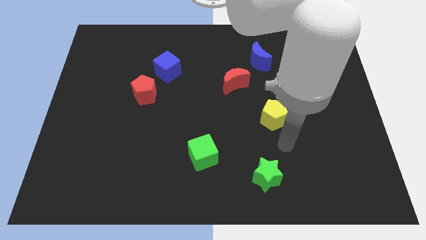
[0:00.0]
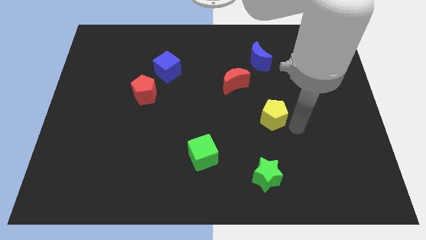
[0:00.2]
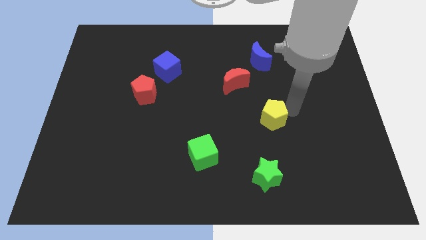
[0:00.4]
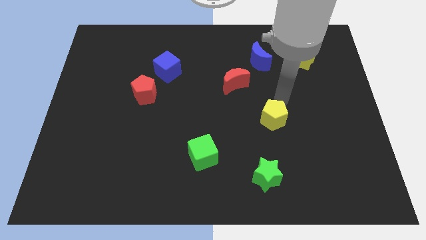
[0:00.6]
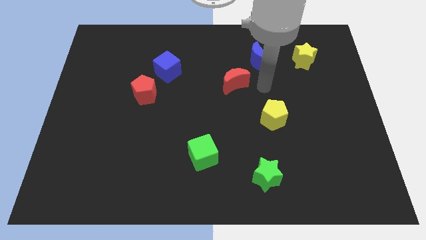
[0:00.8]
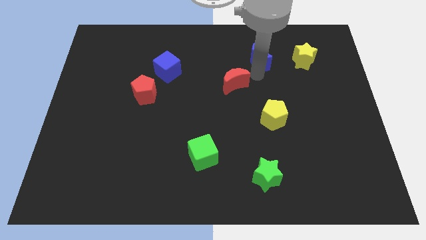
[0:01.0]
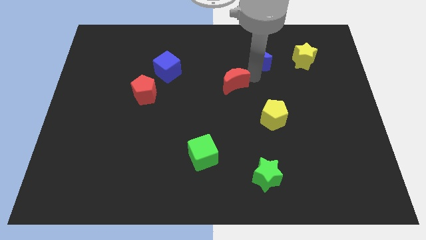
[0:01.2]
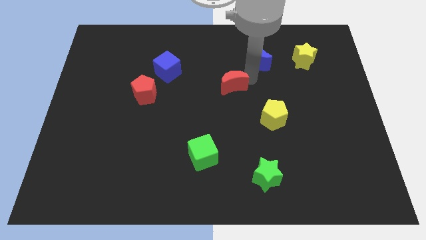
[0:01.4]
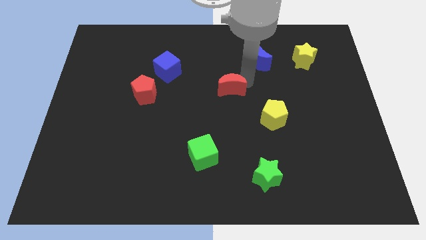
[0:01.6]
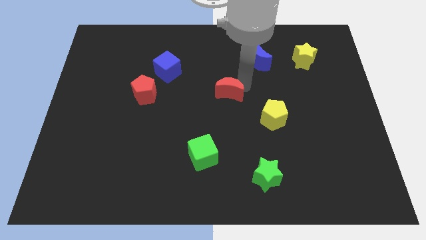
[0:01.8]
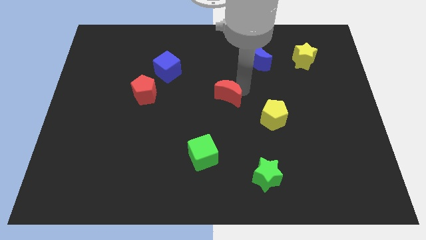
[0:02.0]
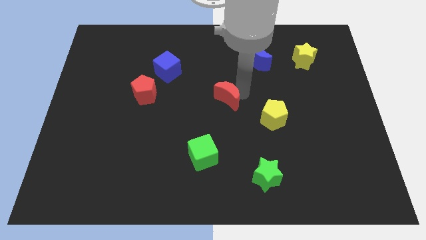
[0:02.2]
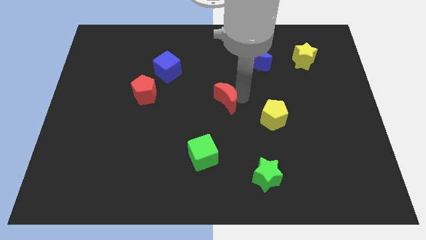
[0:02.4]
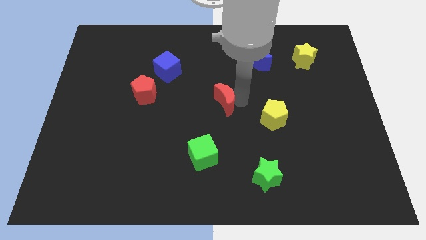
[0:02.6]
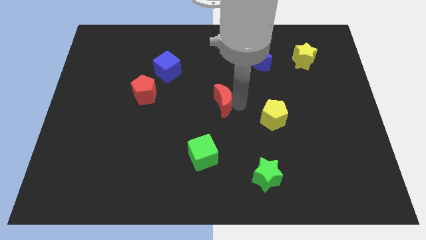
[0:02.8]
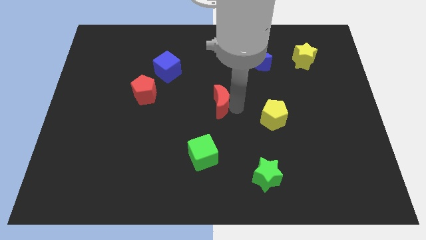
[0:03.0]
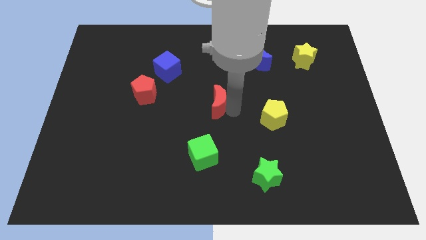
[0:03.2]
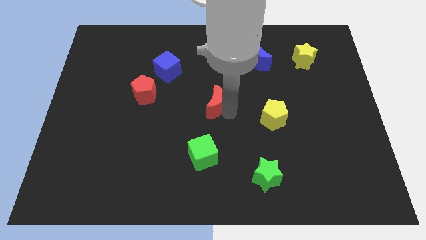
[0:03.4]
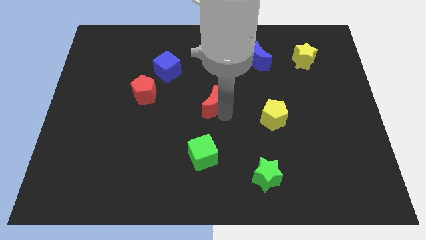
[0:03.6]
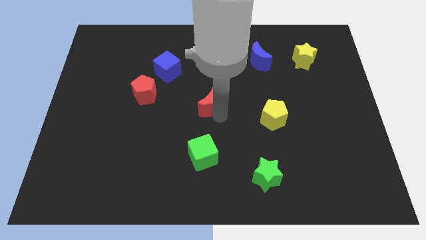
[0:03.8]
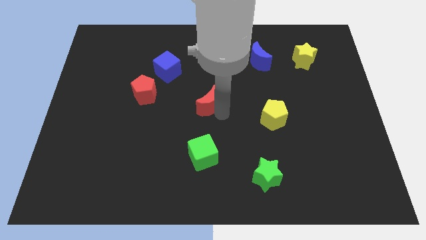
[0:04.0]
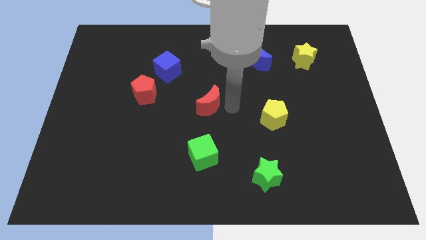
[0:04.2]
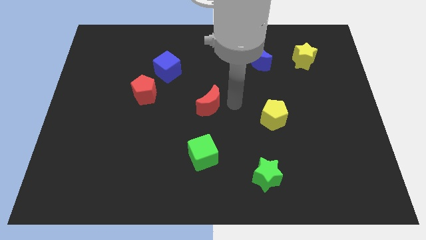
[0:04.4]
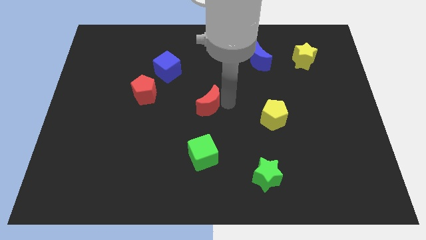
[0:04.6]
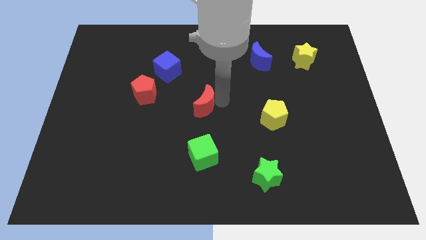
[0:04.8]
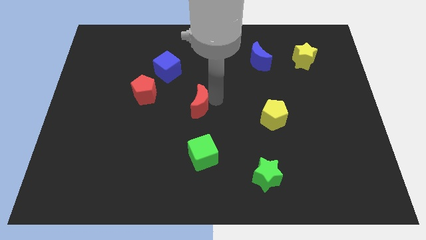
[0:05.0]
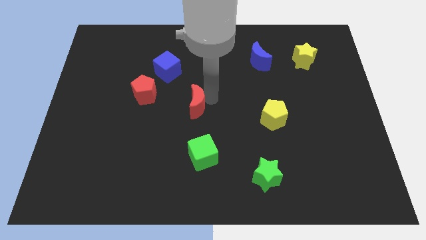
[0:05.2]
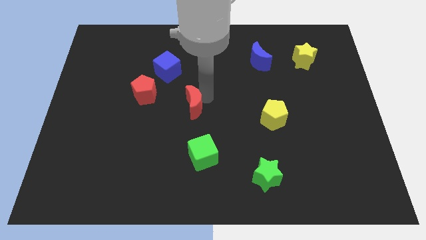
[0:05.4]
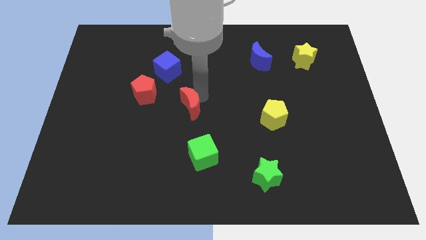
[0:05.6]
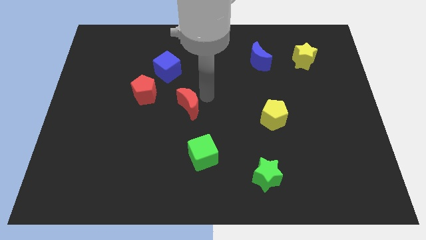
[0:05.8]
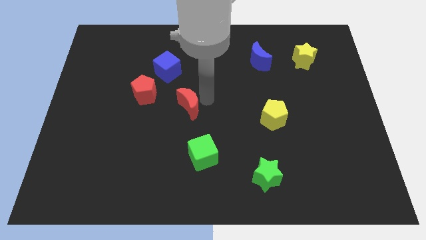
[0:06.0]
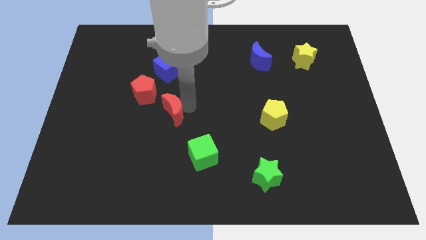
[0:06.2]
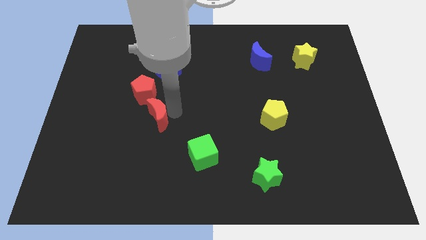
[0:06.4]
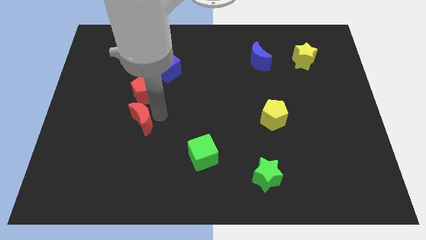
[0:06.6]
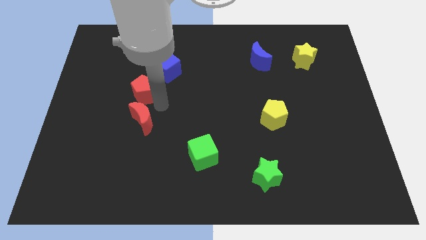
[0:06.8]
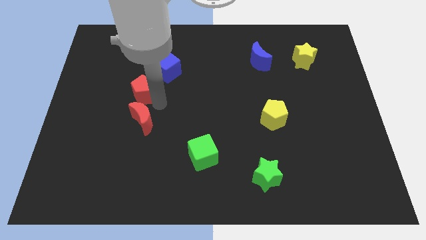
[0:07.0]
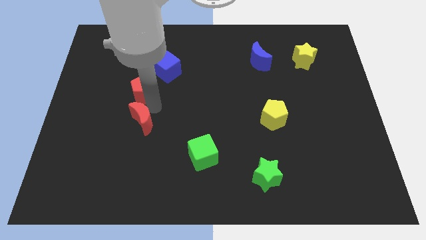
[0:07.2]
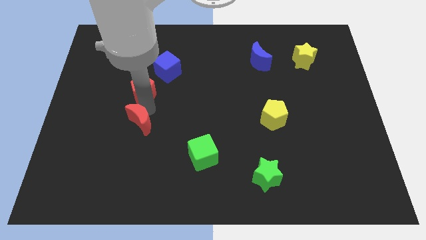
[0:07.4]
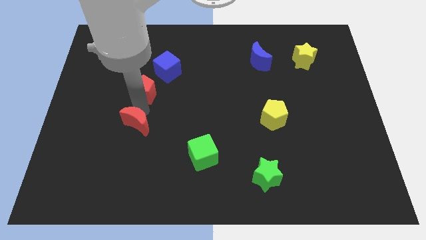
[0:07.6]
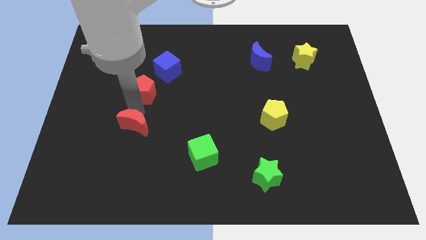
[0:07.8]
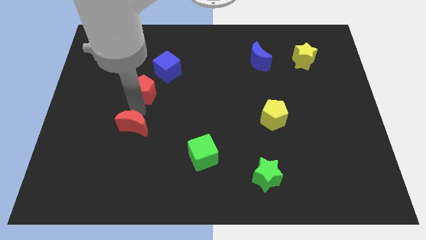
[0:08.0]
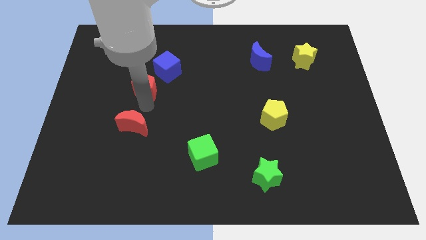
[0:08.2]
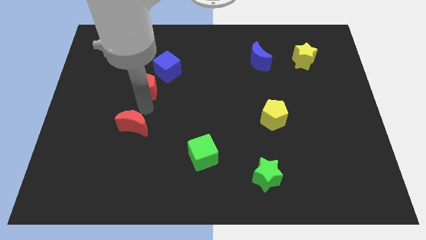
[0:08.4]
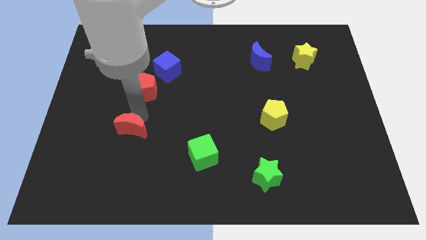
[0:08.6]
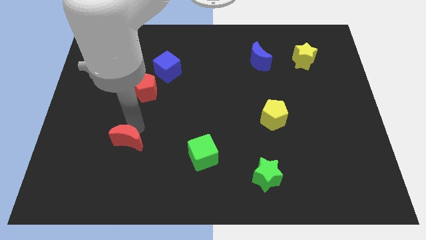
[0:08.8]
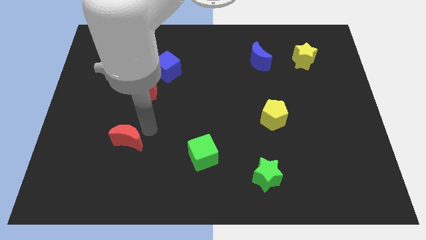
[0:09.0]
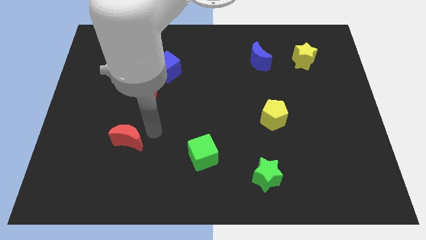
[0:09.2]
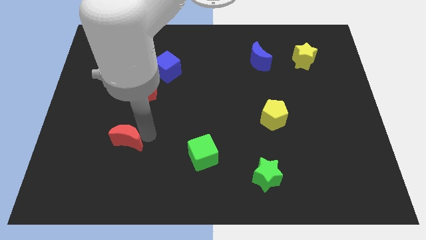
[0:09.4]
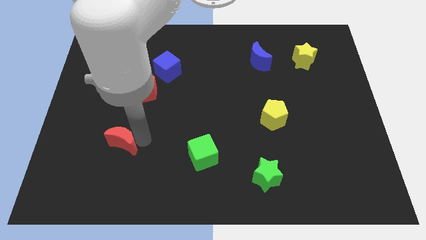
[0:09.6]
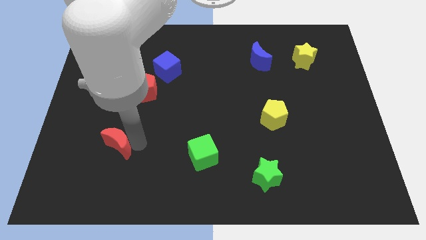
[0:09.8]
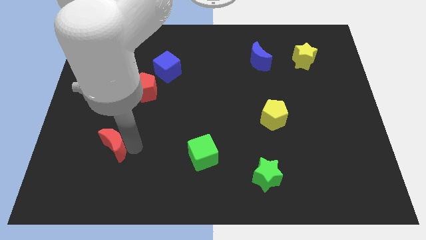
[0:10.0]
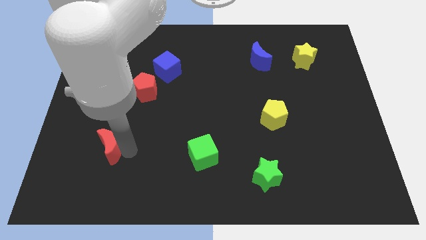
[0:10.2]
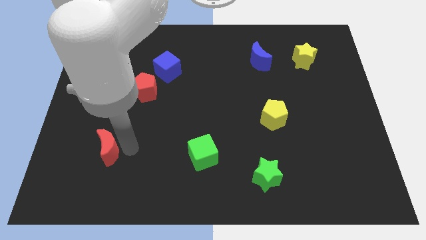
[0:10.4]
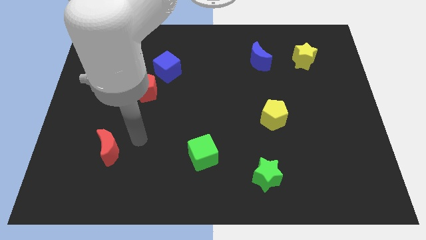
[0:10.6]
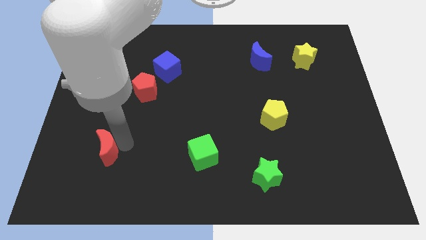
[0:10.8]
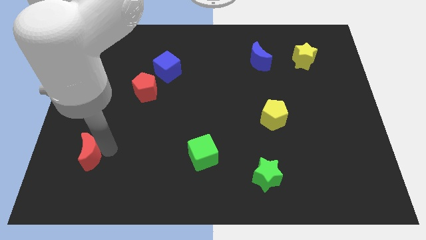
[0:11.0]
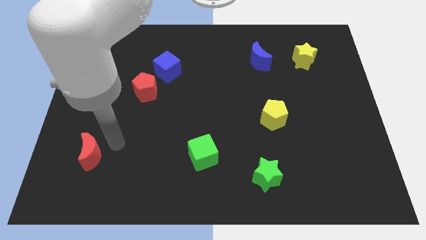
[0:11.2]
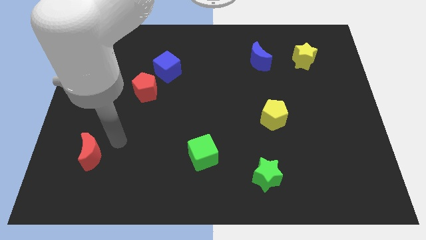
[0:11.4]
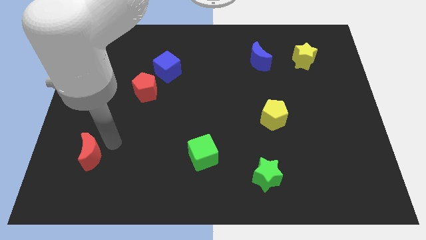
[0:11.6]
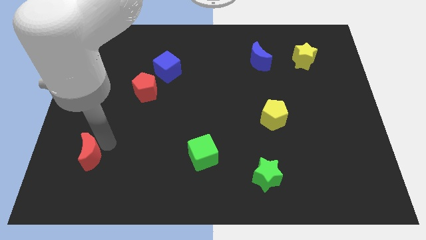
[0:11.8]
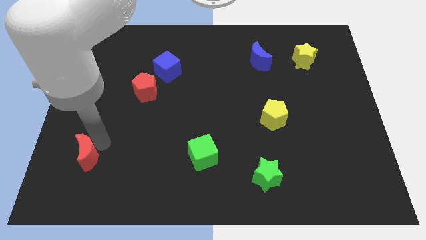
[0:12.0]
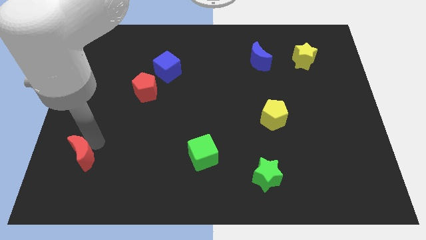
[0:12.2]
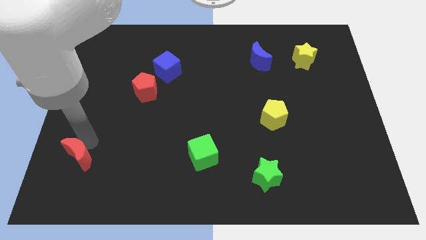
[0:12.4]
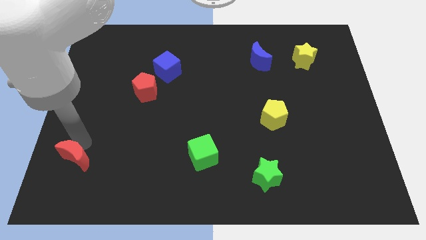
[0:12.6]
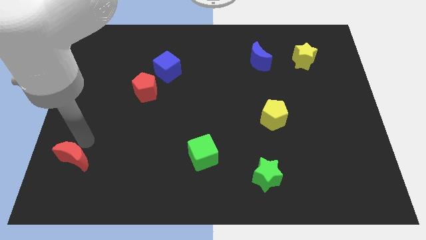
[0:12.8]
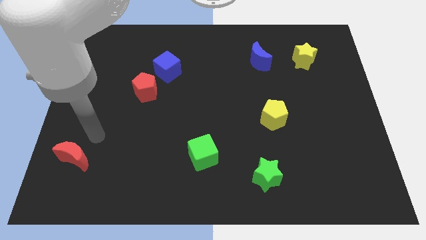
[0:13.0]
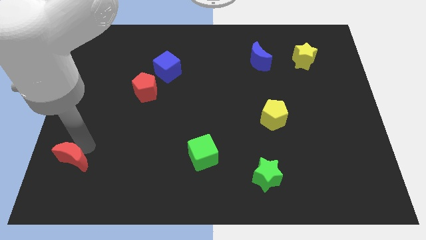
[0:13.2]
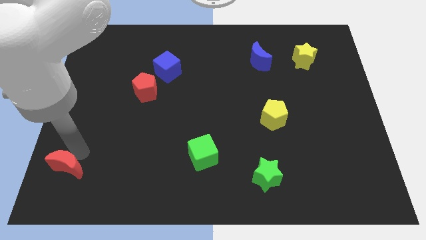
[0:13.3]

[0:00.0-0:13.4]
slide the red moon to the bottom left corner
